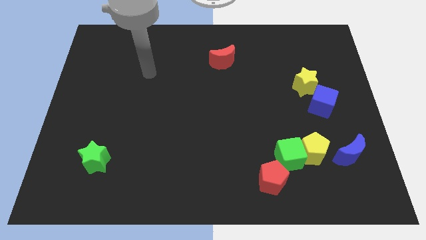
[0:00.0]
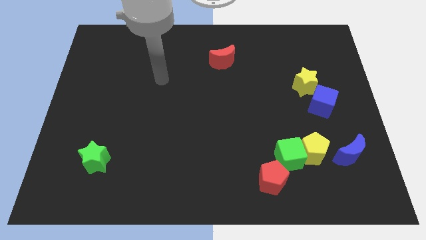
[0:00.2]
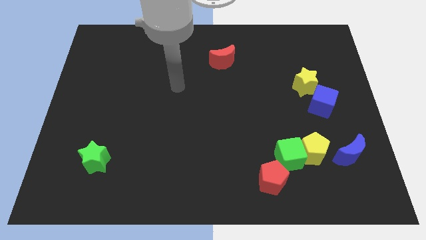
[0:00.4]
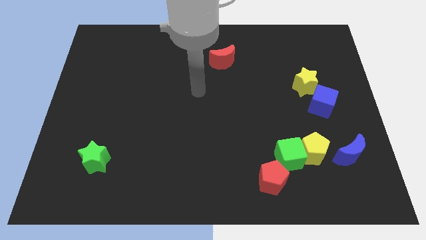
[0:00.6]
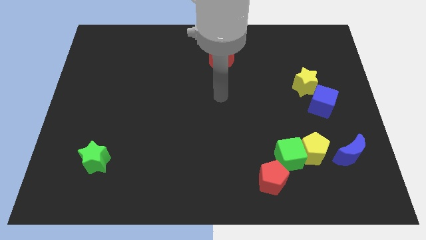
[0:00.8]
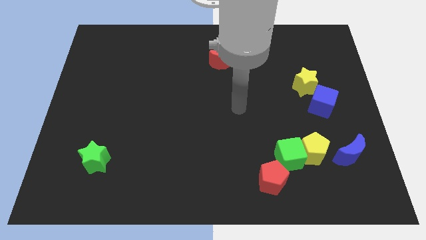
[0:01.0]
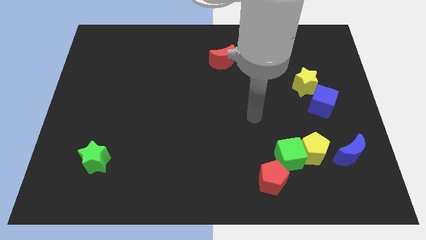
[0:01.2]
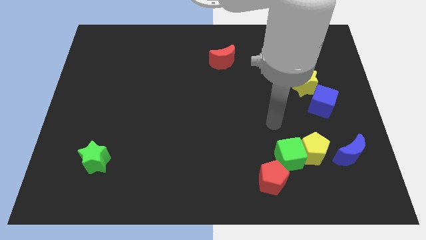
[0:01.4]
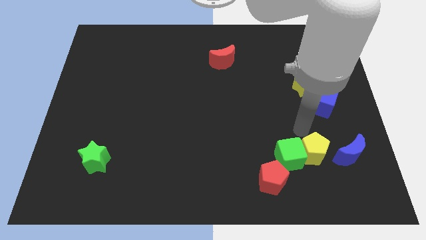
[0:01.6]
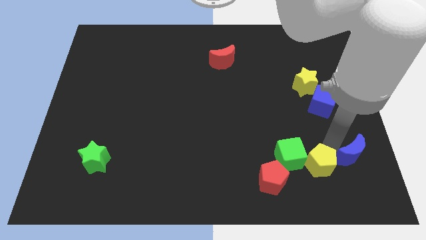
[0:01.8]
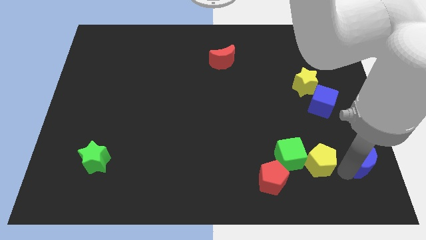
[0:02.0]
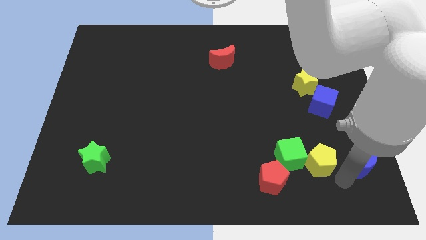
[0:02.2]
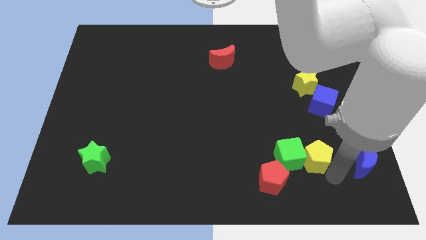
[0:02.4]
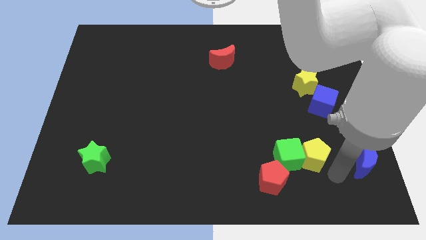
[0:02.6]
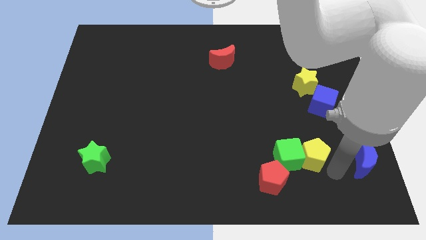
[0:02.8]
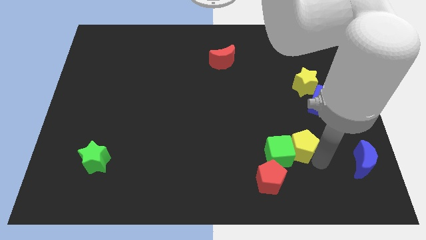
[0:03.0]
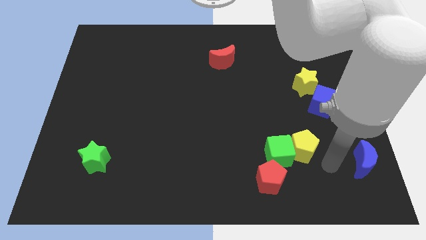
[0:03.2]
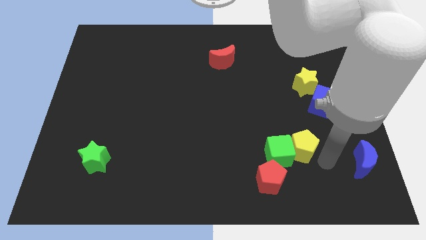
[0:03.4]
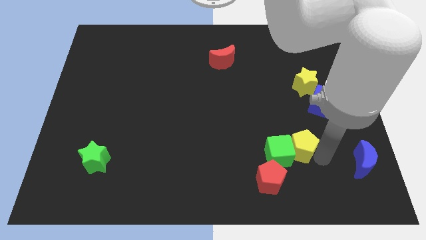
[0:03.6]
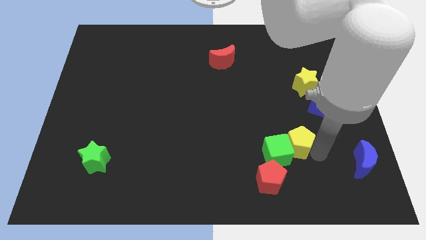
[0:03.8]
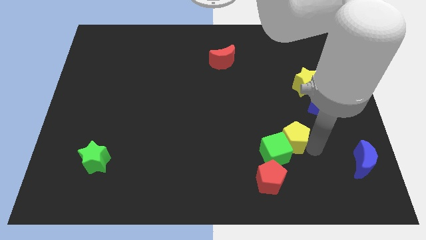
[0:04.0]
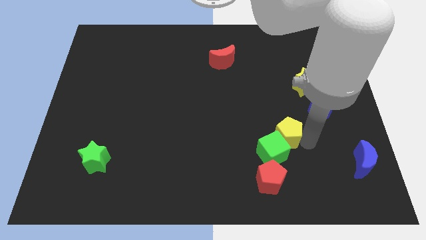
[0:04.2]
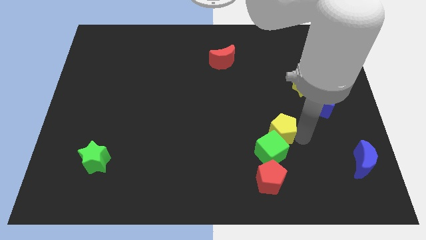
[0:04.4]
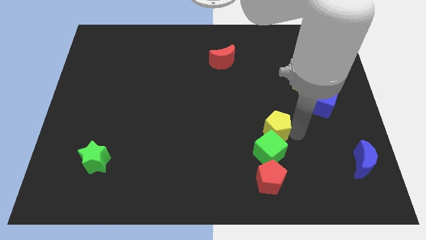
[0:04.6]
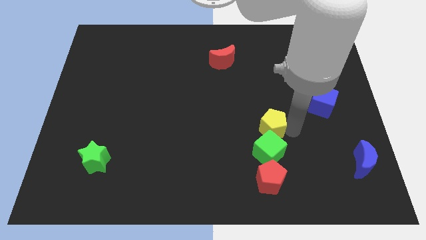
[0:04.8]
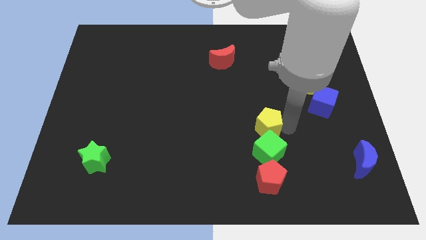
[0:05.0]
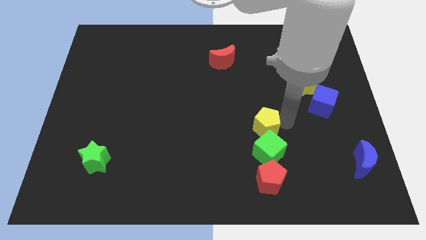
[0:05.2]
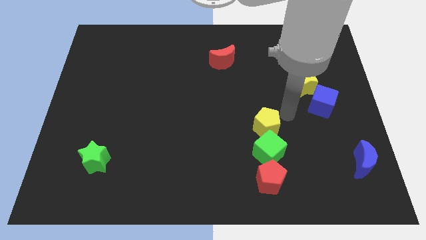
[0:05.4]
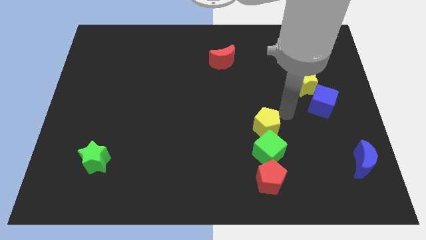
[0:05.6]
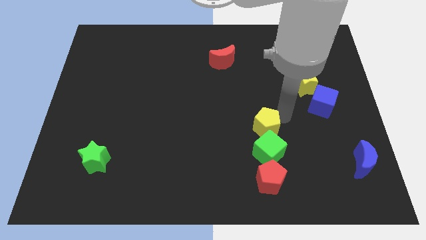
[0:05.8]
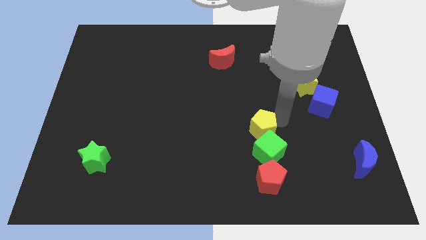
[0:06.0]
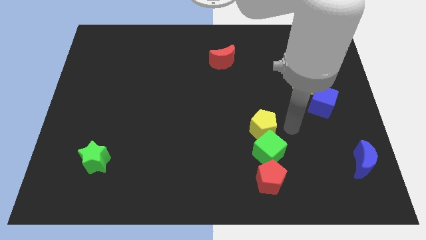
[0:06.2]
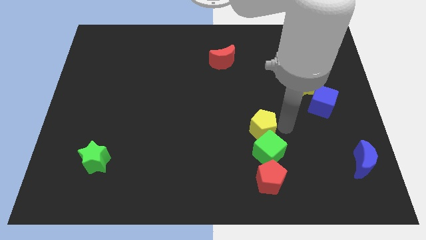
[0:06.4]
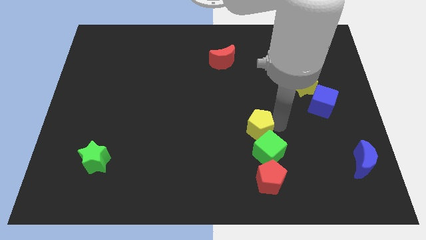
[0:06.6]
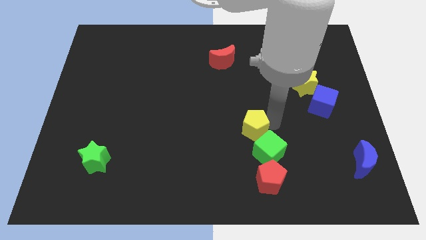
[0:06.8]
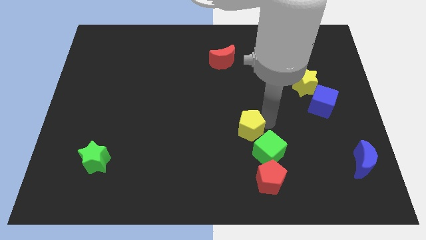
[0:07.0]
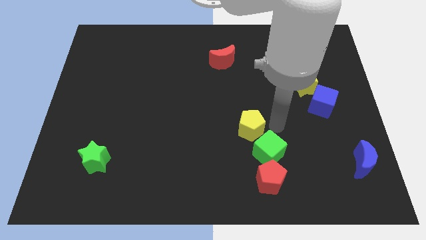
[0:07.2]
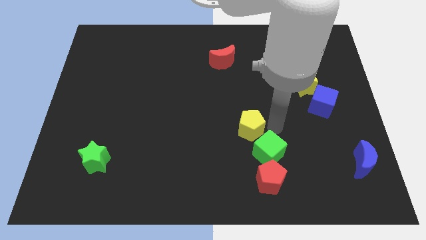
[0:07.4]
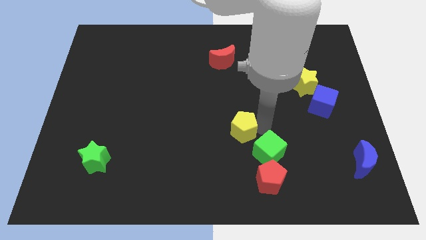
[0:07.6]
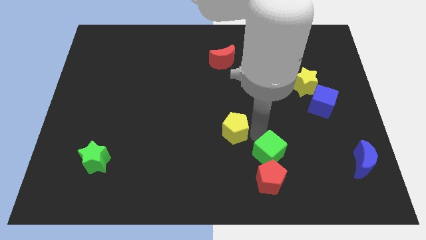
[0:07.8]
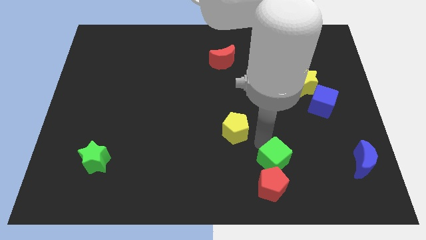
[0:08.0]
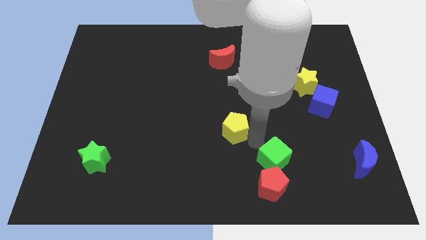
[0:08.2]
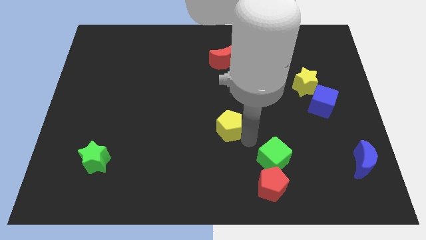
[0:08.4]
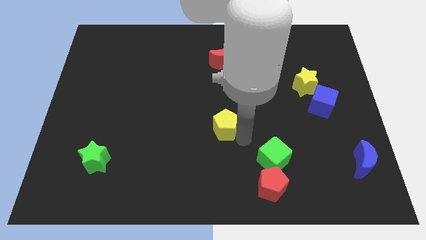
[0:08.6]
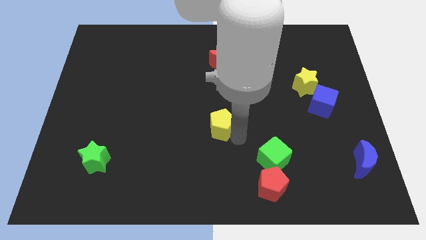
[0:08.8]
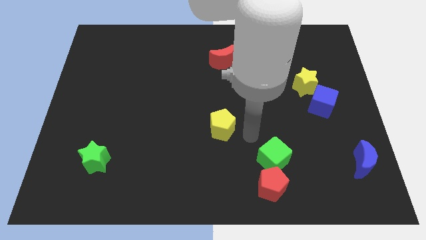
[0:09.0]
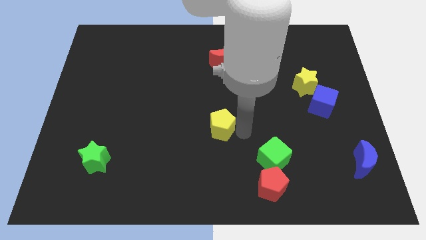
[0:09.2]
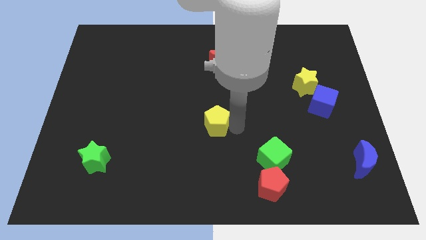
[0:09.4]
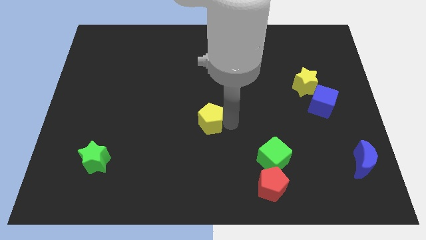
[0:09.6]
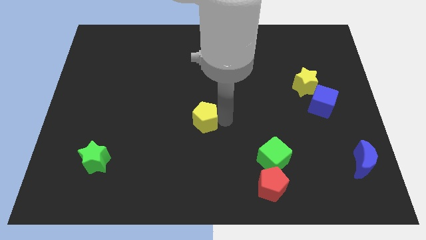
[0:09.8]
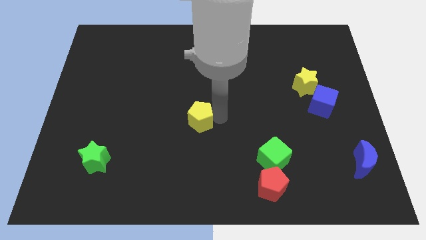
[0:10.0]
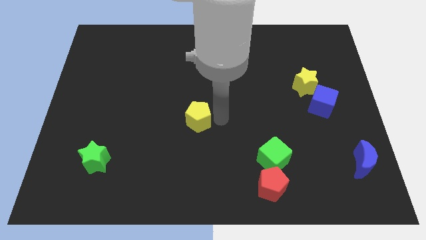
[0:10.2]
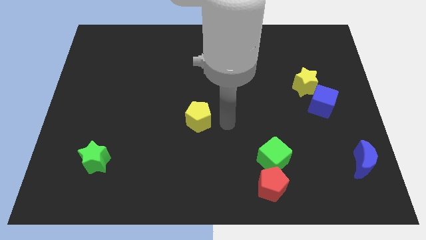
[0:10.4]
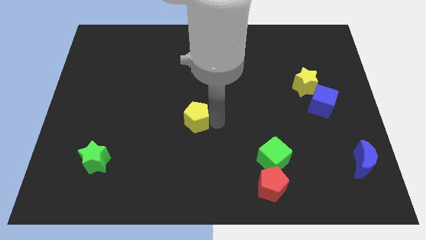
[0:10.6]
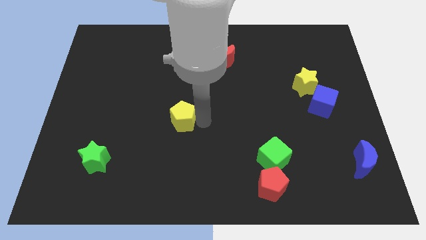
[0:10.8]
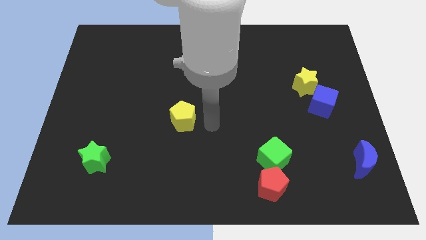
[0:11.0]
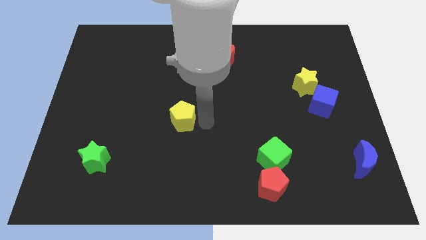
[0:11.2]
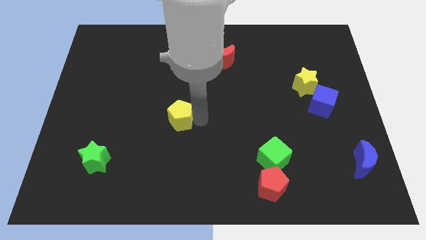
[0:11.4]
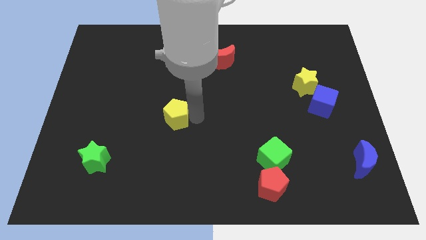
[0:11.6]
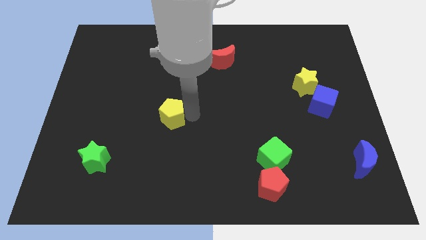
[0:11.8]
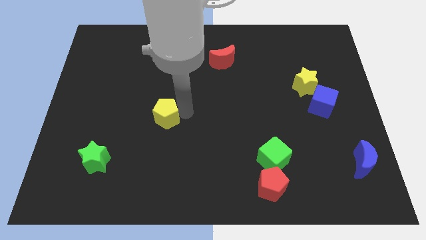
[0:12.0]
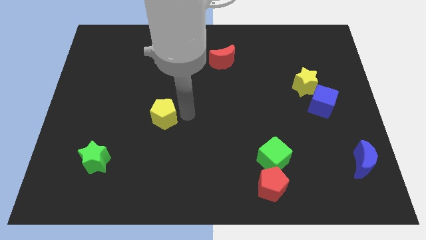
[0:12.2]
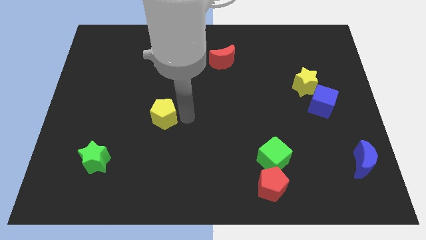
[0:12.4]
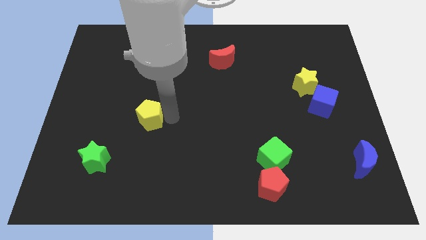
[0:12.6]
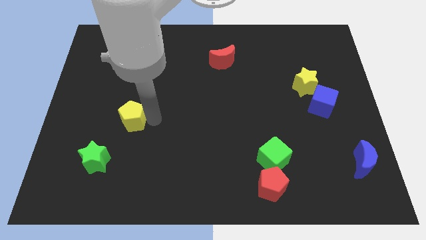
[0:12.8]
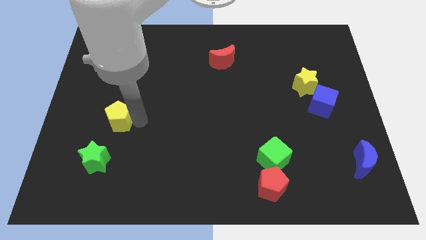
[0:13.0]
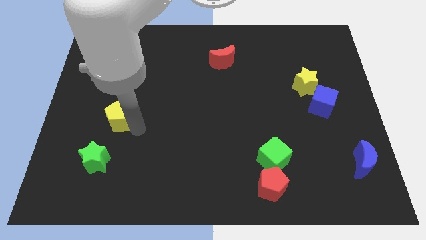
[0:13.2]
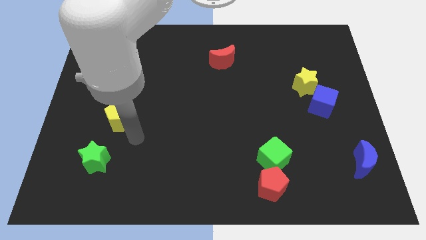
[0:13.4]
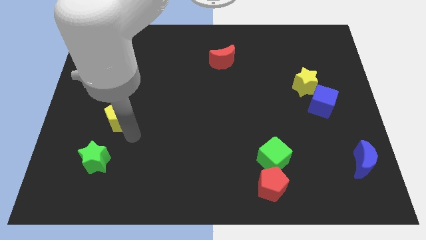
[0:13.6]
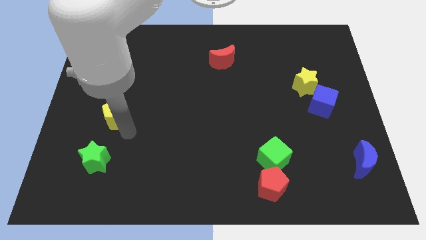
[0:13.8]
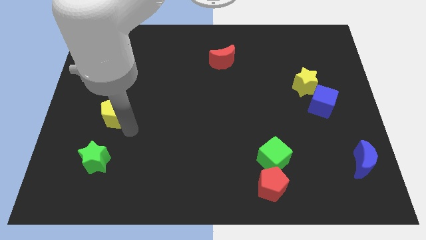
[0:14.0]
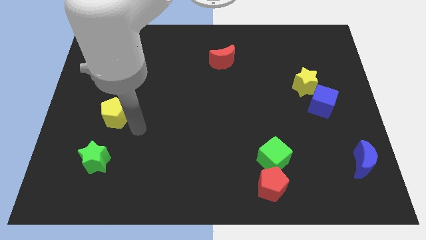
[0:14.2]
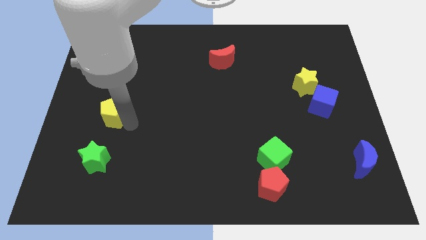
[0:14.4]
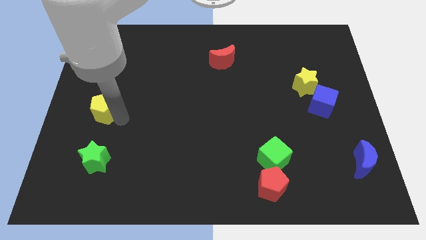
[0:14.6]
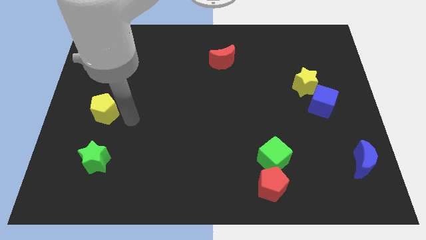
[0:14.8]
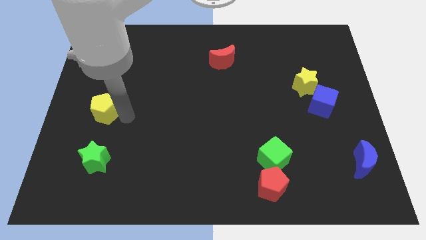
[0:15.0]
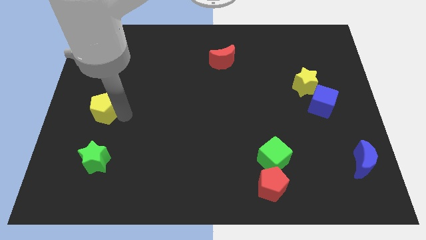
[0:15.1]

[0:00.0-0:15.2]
put the yellow pentagon to the left side of the board
